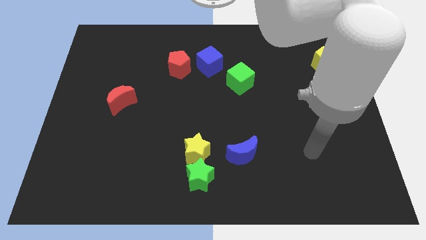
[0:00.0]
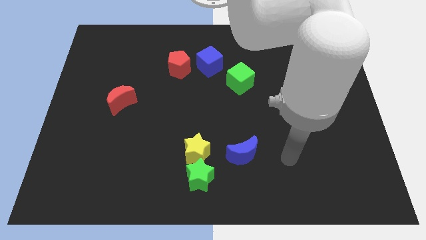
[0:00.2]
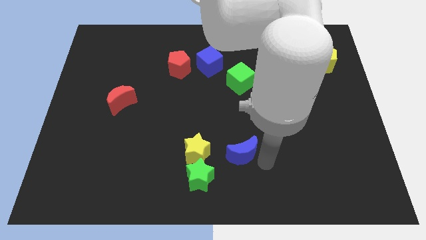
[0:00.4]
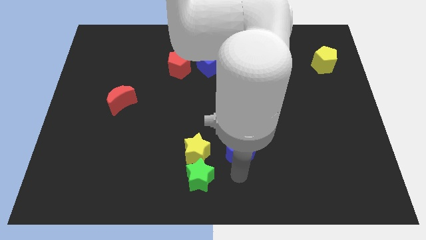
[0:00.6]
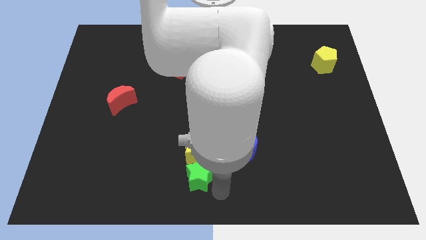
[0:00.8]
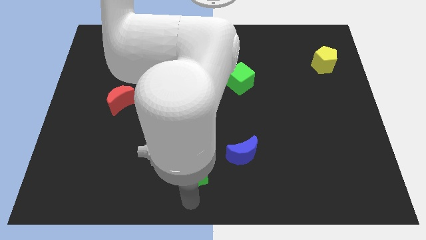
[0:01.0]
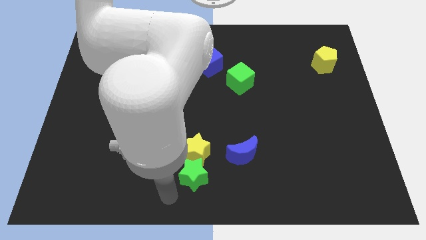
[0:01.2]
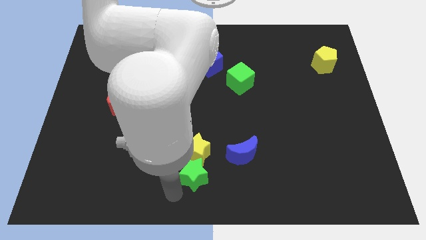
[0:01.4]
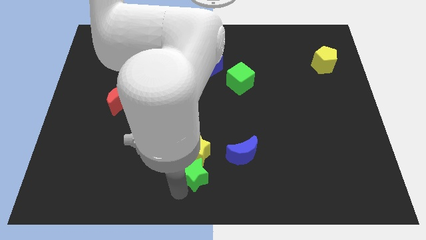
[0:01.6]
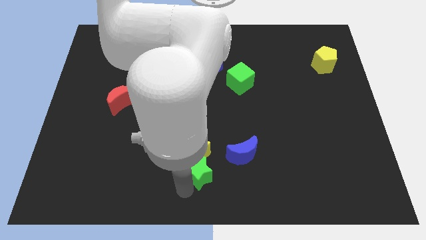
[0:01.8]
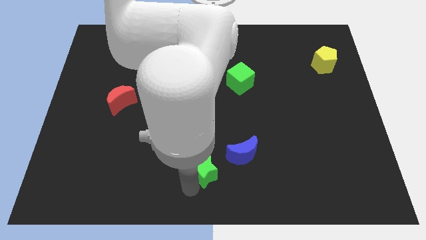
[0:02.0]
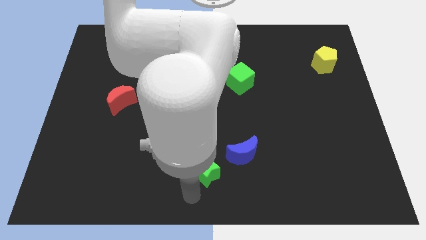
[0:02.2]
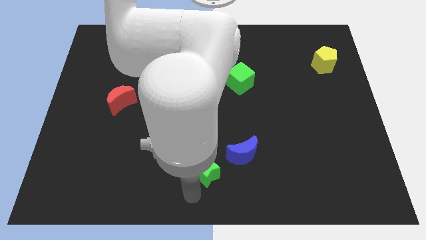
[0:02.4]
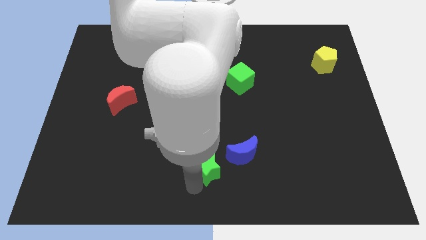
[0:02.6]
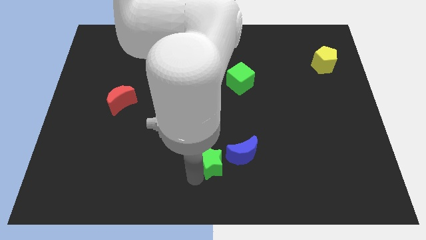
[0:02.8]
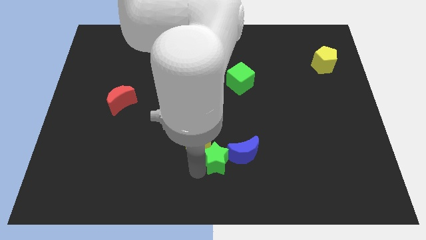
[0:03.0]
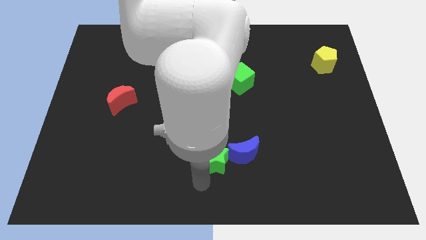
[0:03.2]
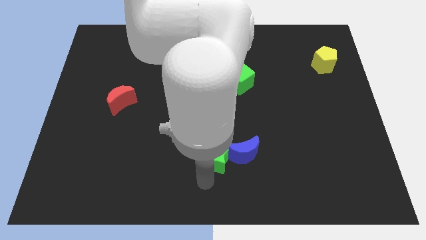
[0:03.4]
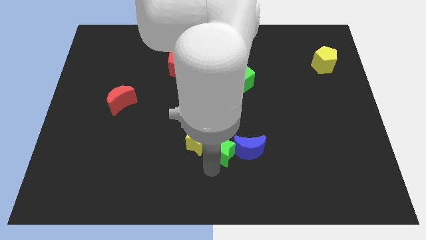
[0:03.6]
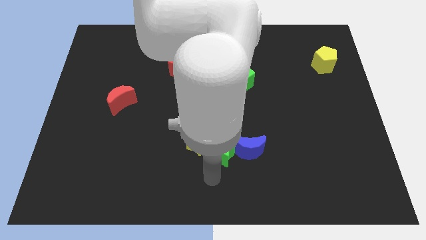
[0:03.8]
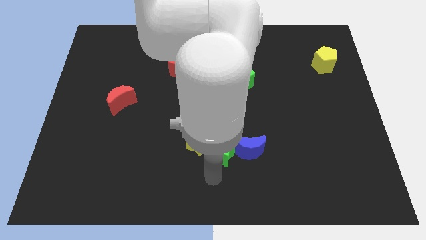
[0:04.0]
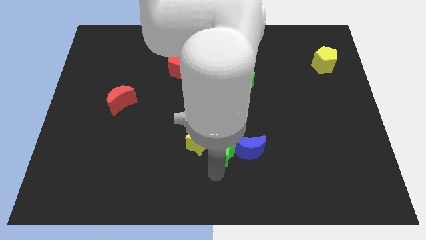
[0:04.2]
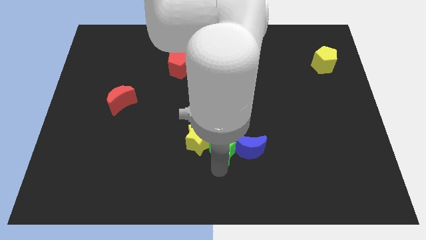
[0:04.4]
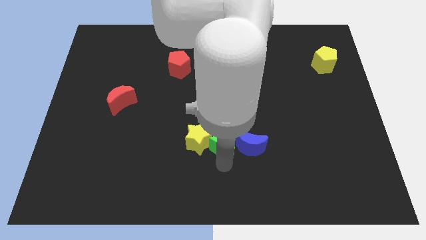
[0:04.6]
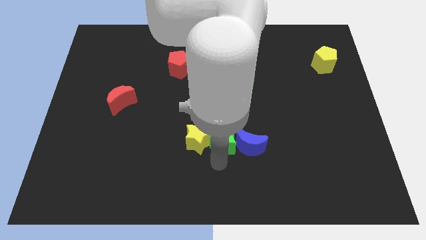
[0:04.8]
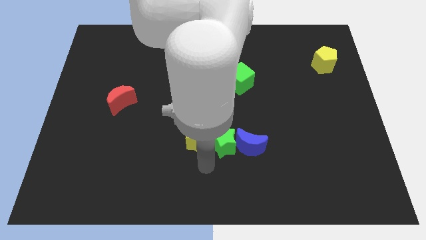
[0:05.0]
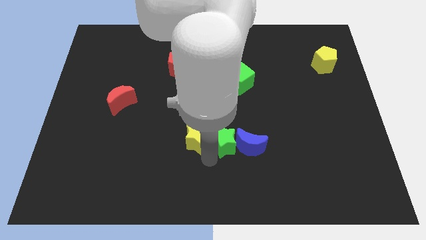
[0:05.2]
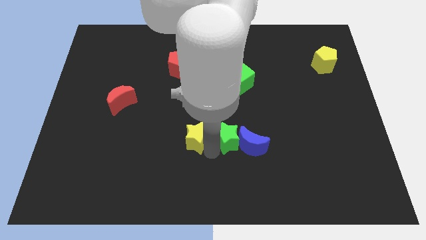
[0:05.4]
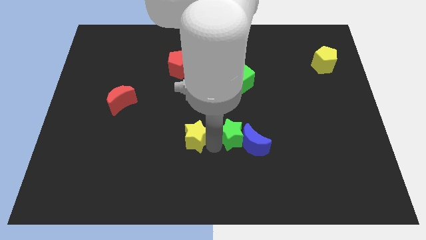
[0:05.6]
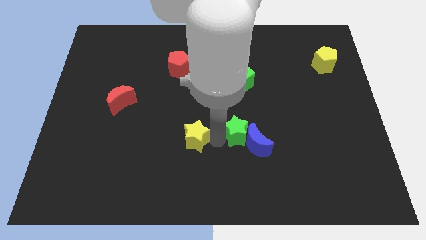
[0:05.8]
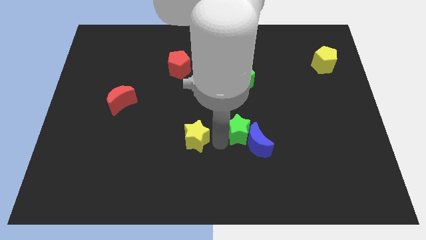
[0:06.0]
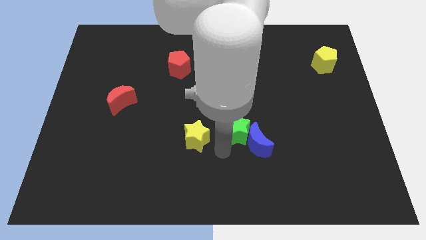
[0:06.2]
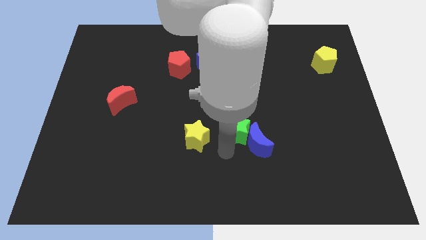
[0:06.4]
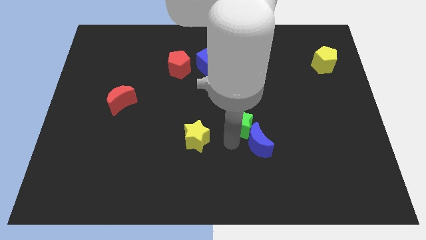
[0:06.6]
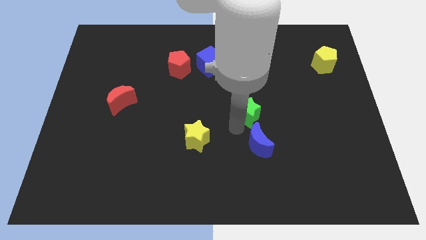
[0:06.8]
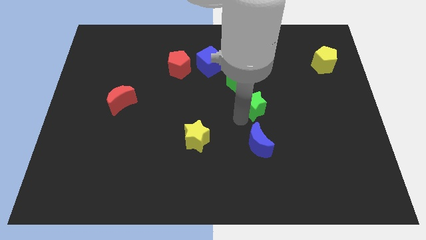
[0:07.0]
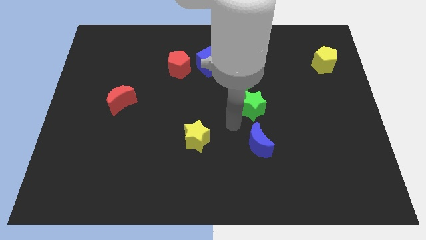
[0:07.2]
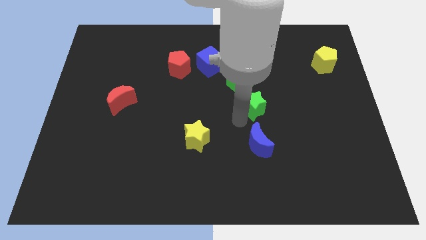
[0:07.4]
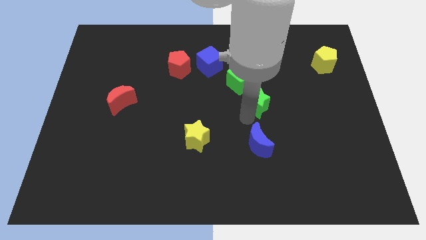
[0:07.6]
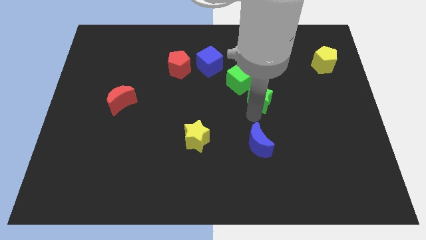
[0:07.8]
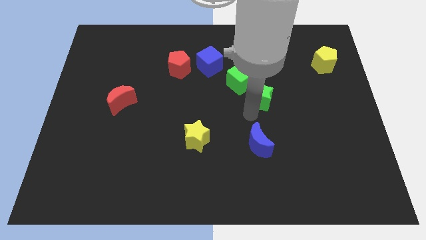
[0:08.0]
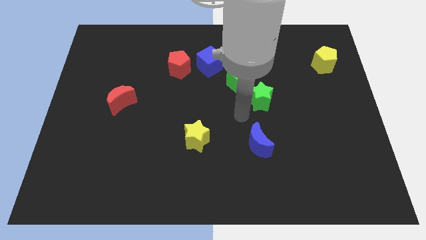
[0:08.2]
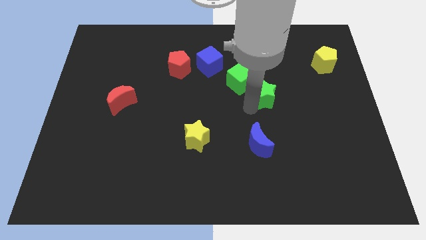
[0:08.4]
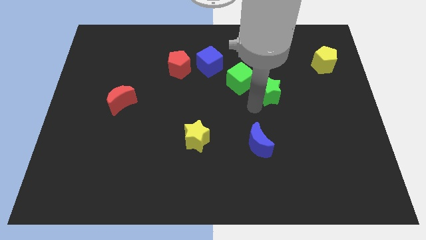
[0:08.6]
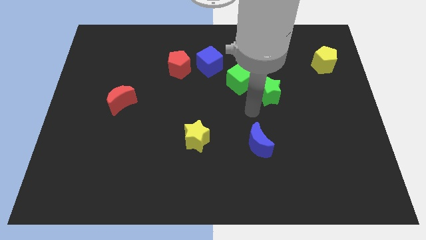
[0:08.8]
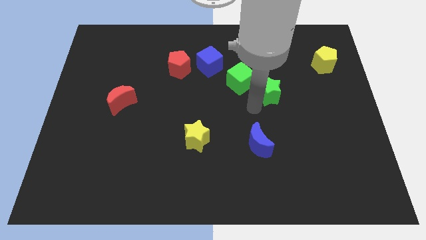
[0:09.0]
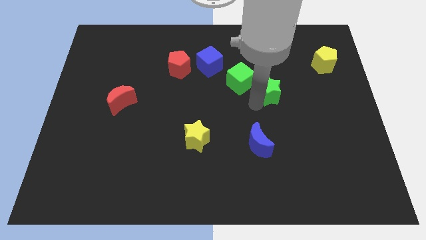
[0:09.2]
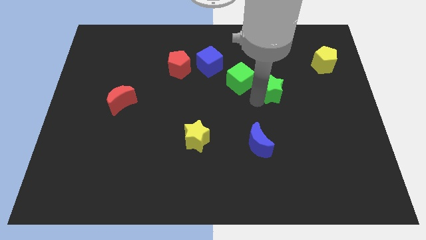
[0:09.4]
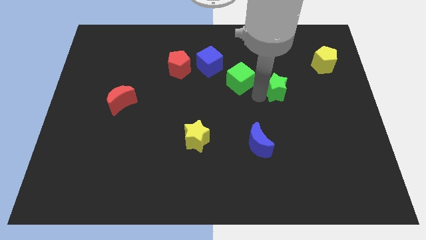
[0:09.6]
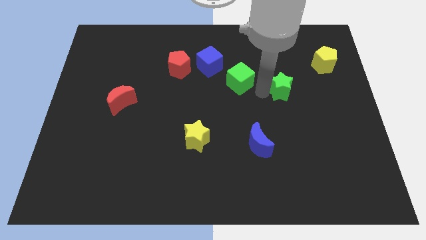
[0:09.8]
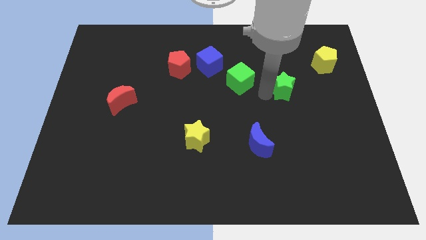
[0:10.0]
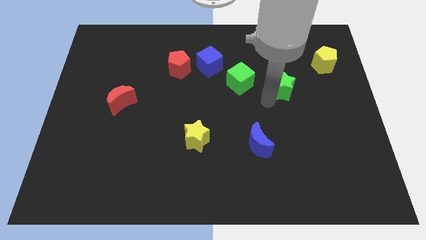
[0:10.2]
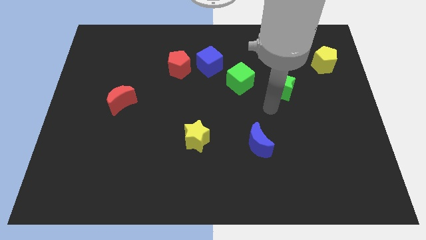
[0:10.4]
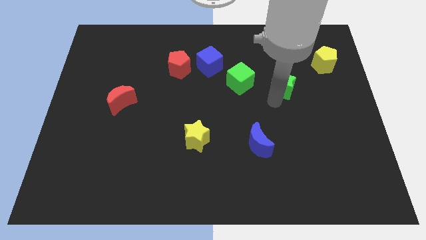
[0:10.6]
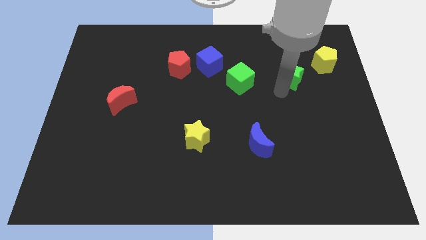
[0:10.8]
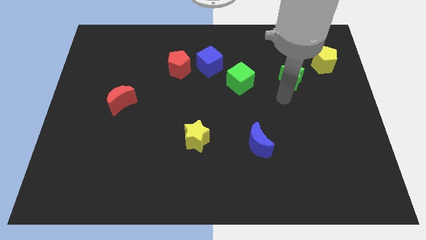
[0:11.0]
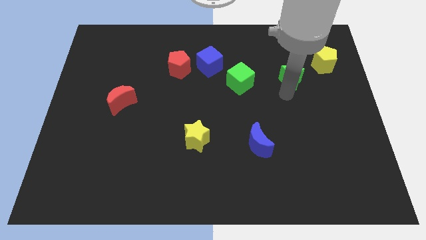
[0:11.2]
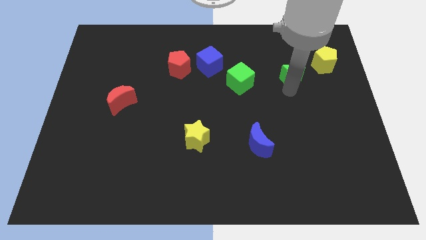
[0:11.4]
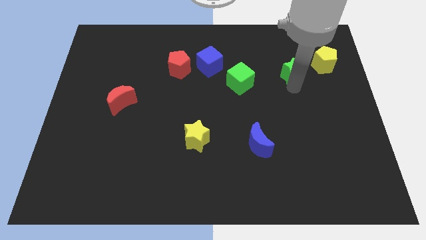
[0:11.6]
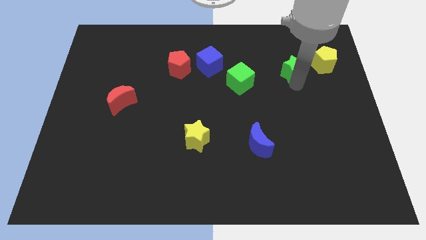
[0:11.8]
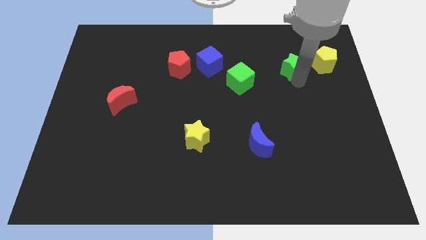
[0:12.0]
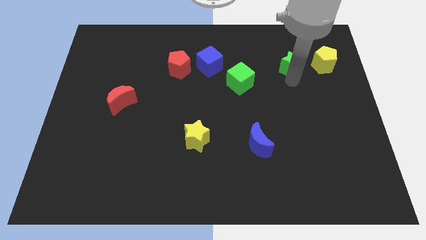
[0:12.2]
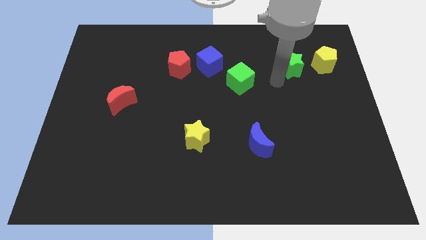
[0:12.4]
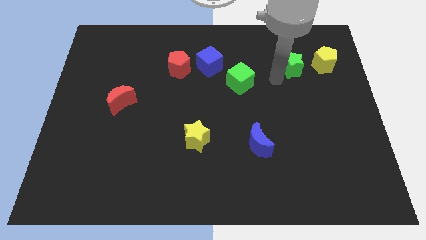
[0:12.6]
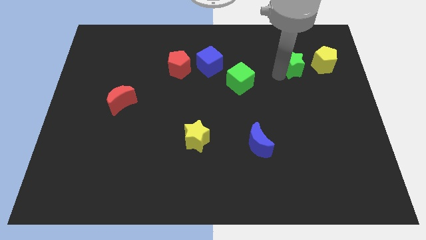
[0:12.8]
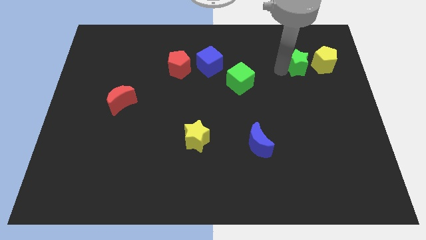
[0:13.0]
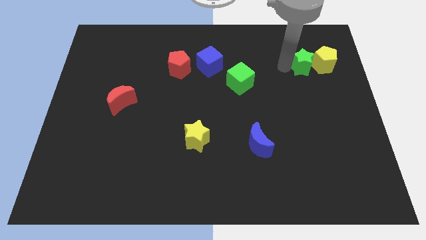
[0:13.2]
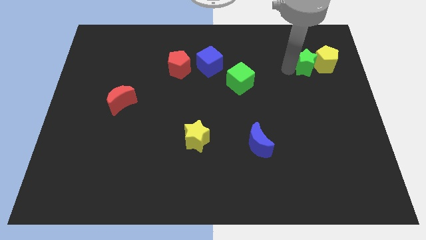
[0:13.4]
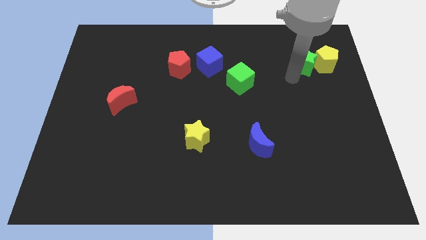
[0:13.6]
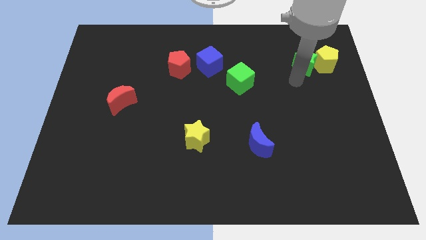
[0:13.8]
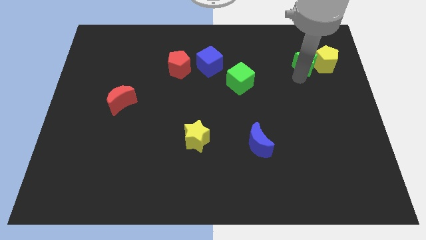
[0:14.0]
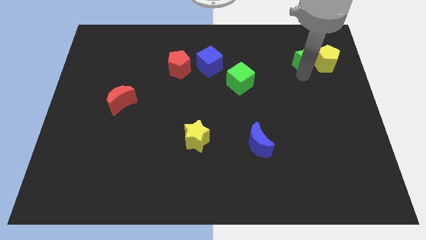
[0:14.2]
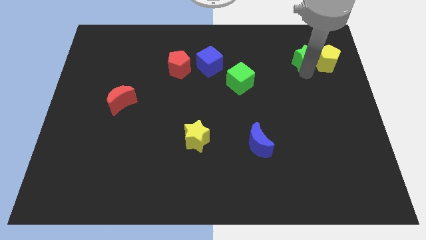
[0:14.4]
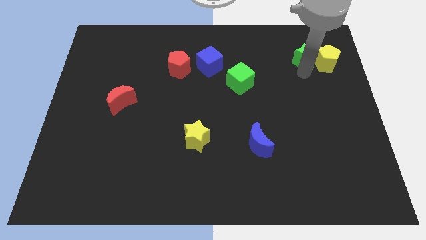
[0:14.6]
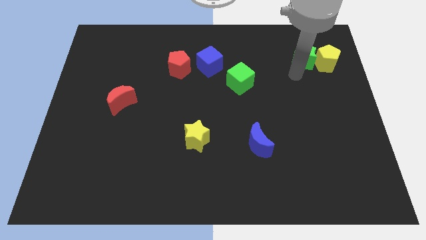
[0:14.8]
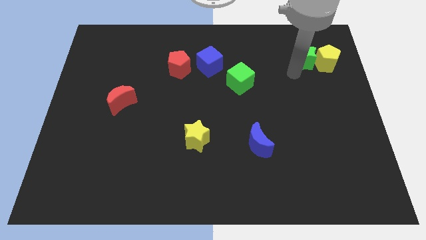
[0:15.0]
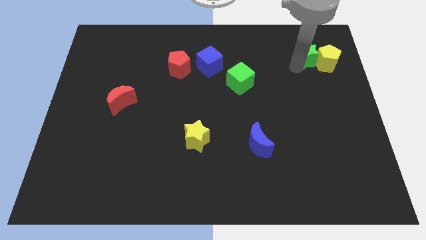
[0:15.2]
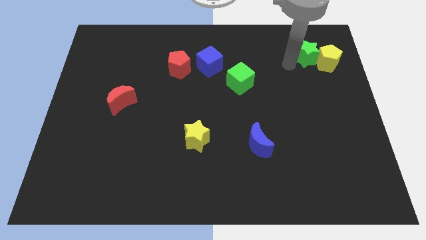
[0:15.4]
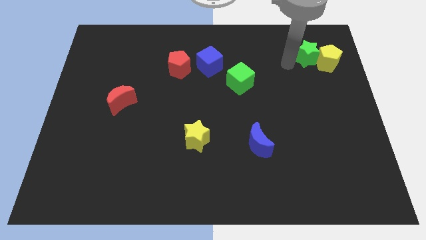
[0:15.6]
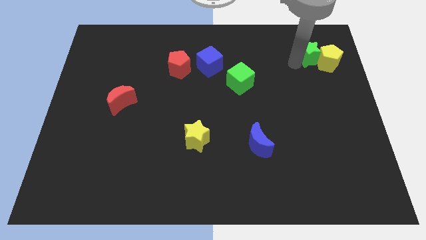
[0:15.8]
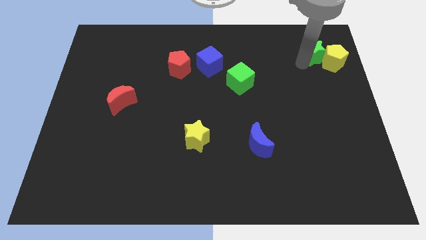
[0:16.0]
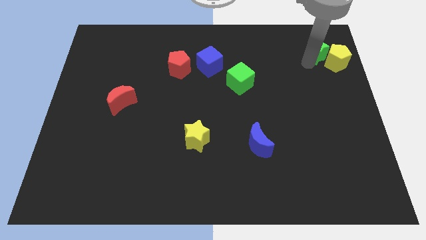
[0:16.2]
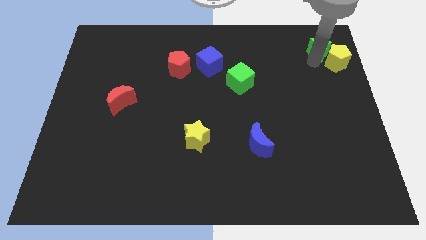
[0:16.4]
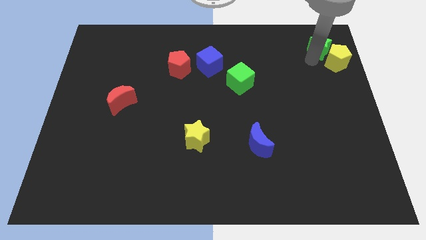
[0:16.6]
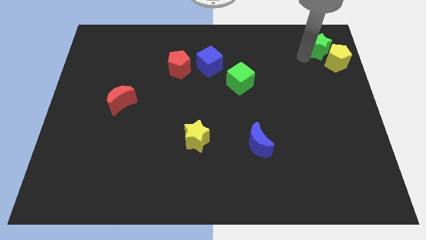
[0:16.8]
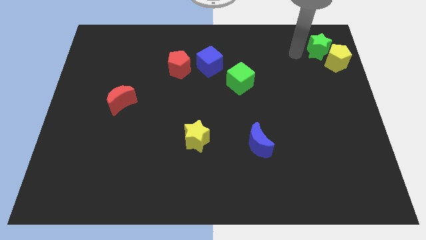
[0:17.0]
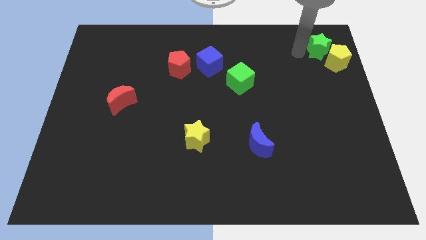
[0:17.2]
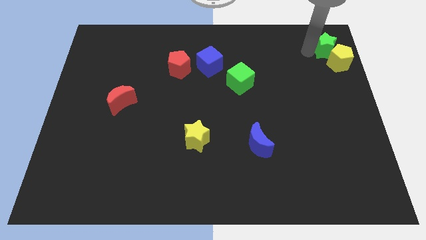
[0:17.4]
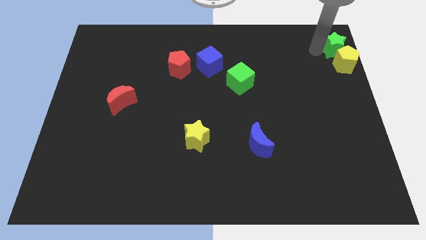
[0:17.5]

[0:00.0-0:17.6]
slide the green star to the top right of the board
